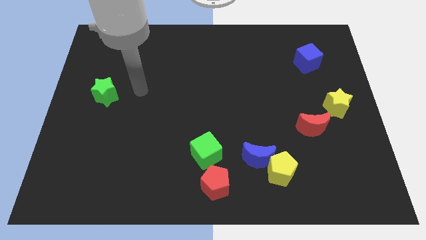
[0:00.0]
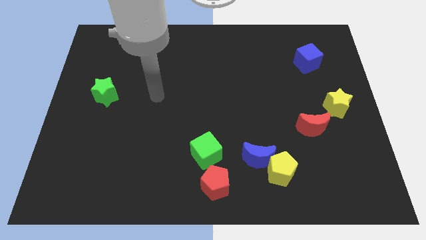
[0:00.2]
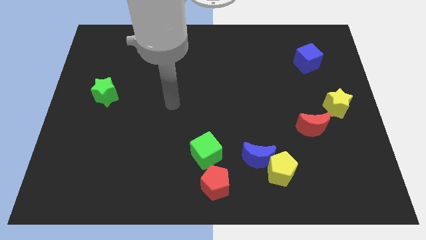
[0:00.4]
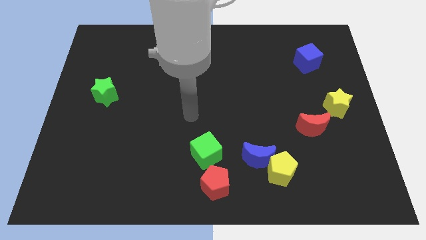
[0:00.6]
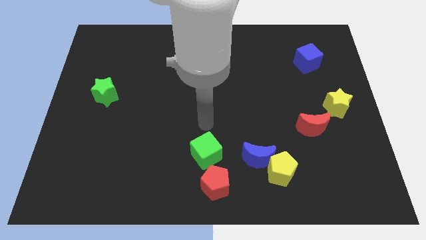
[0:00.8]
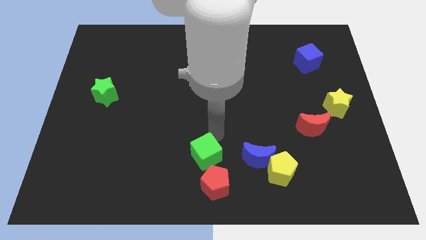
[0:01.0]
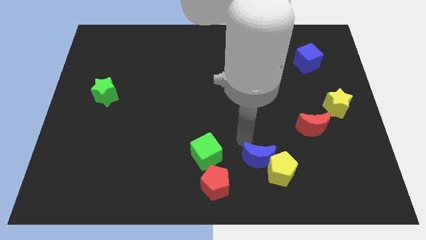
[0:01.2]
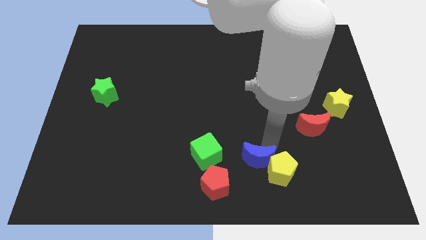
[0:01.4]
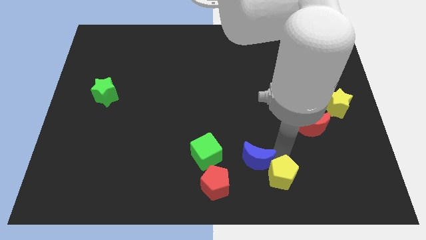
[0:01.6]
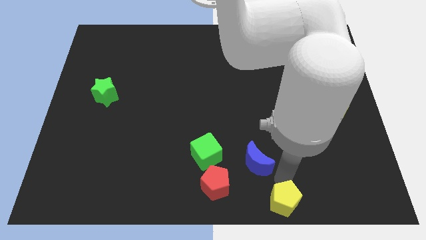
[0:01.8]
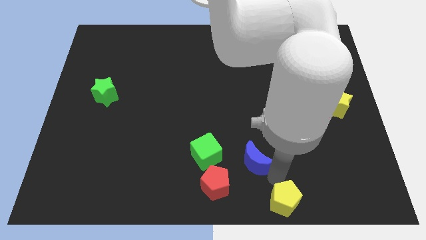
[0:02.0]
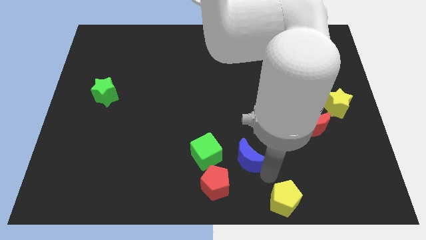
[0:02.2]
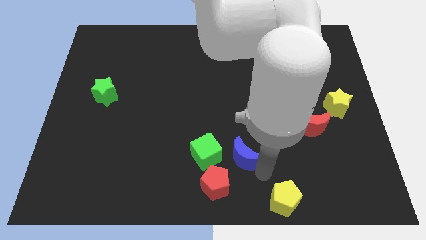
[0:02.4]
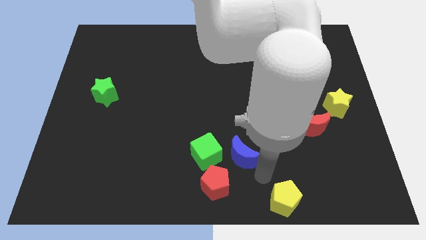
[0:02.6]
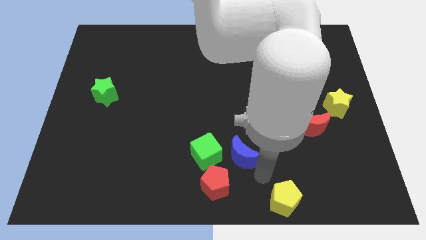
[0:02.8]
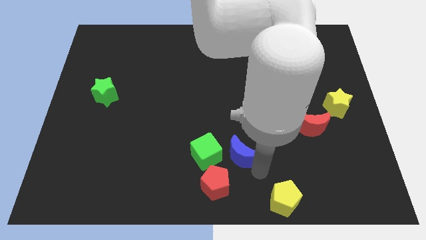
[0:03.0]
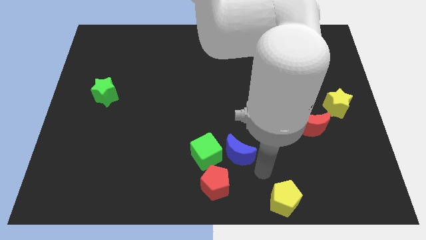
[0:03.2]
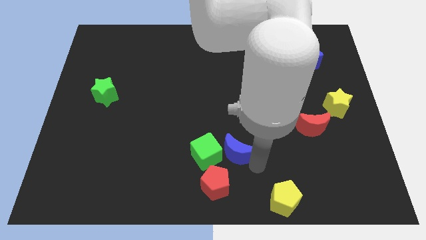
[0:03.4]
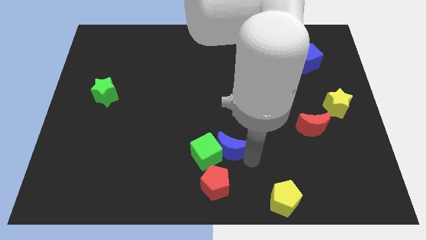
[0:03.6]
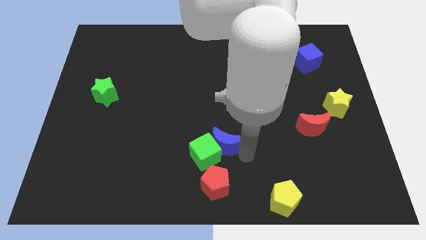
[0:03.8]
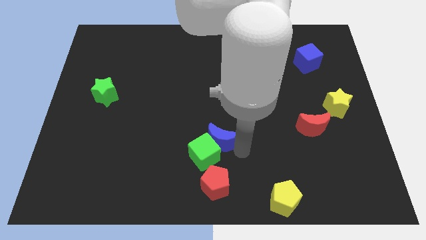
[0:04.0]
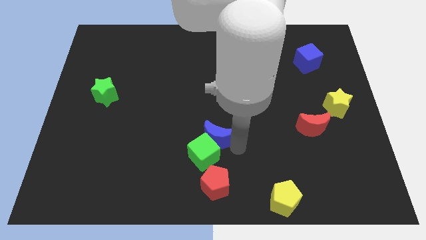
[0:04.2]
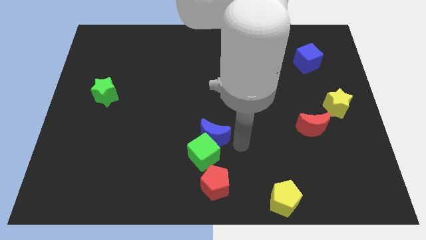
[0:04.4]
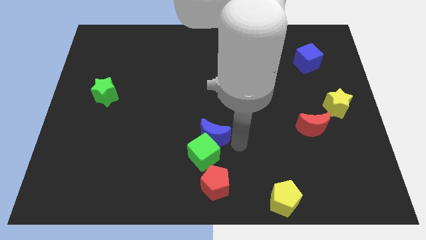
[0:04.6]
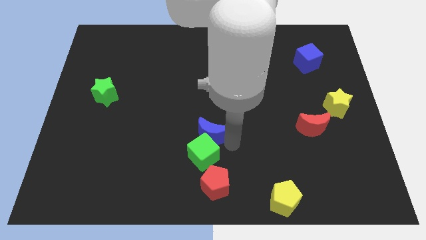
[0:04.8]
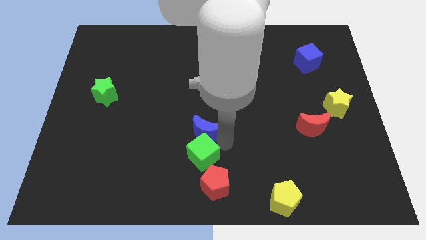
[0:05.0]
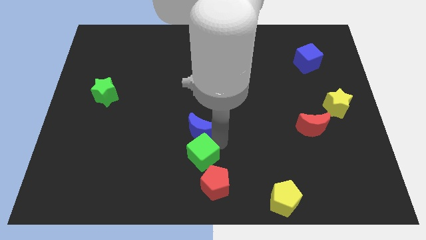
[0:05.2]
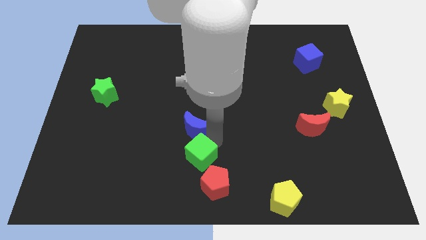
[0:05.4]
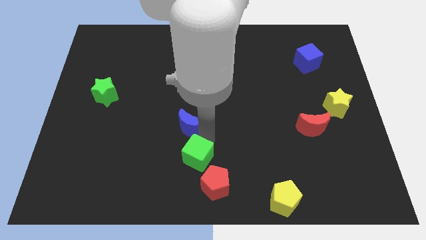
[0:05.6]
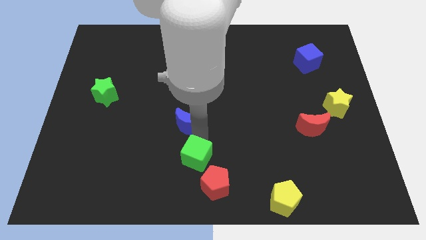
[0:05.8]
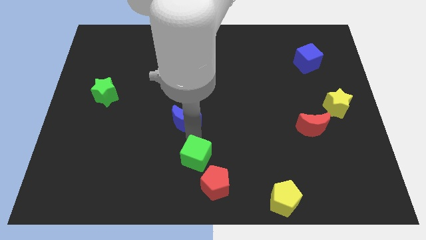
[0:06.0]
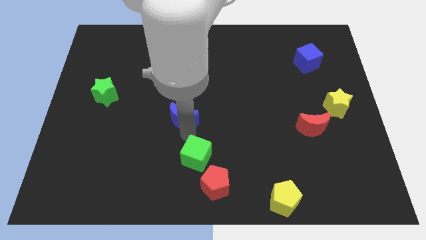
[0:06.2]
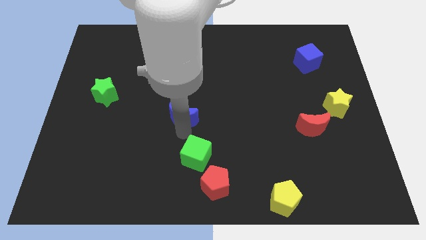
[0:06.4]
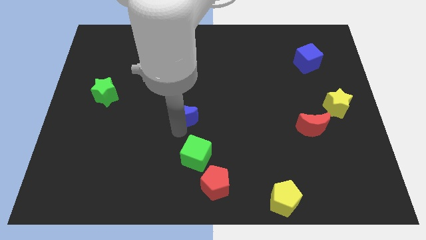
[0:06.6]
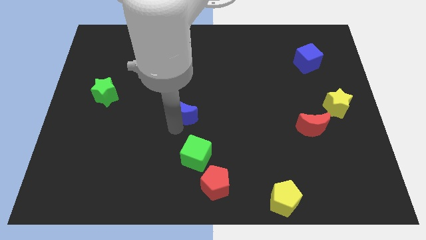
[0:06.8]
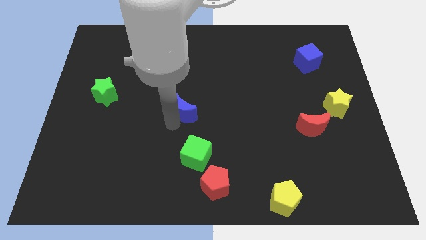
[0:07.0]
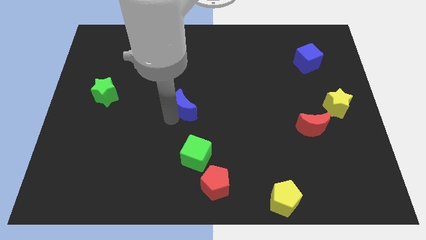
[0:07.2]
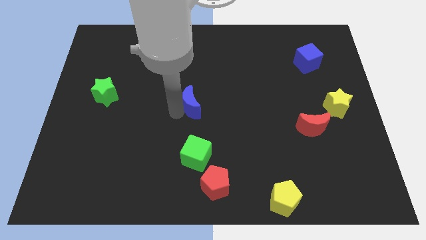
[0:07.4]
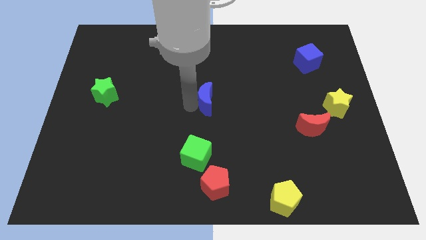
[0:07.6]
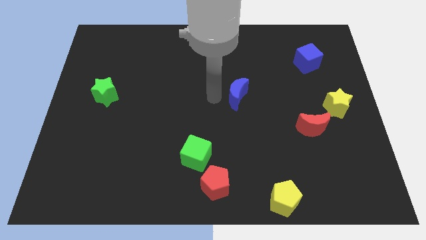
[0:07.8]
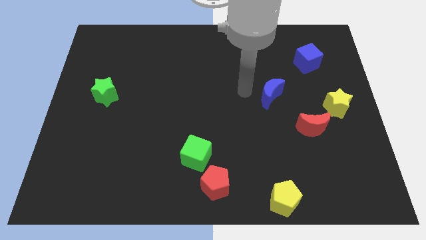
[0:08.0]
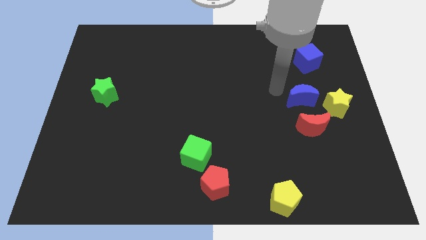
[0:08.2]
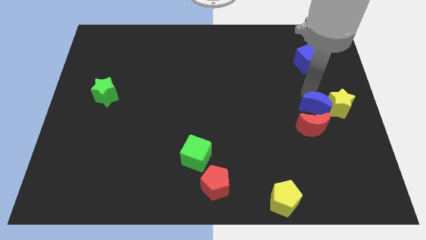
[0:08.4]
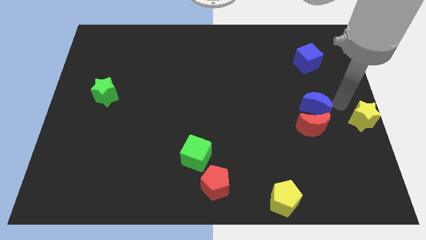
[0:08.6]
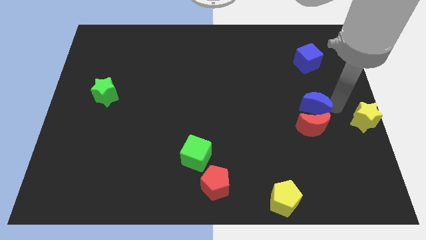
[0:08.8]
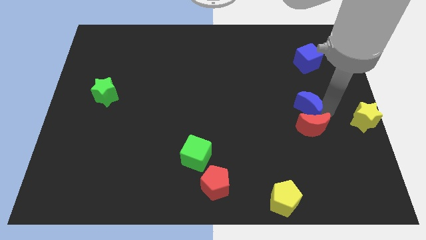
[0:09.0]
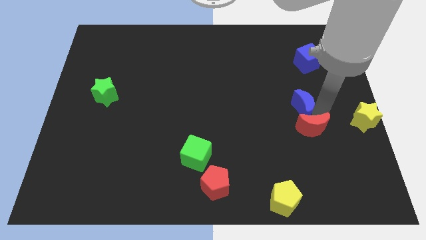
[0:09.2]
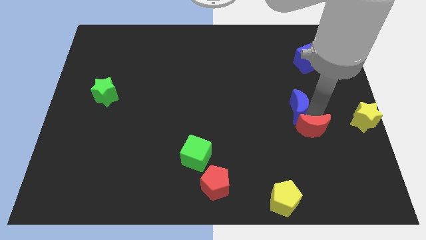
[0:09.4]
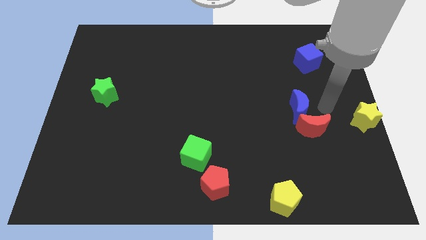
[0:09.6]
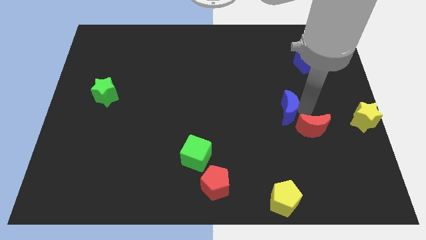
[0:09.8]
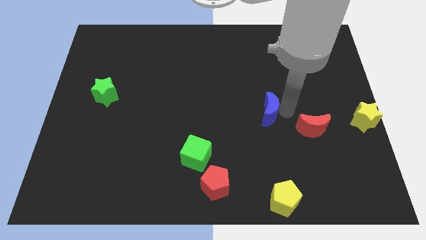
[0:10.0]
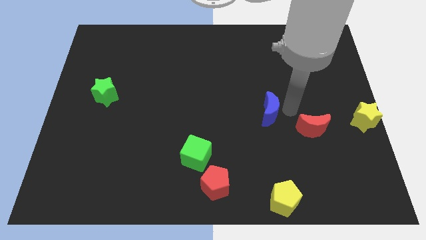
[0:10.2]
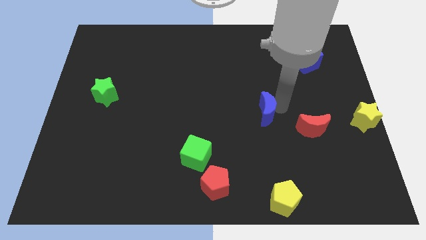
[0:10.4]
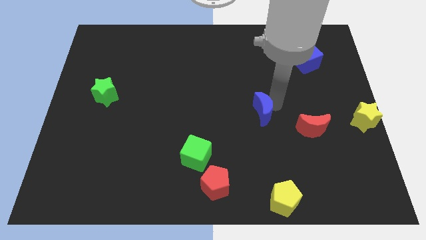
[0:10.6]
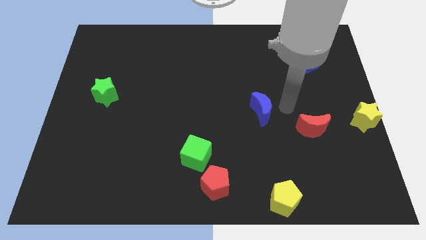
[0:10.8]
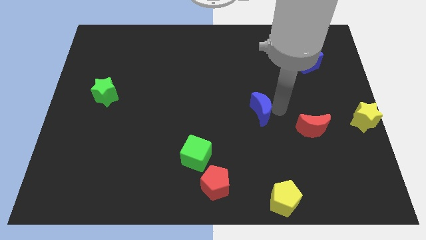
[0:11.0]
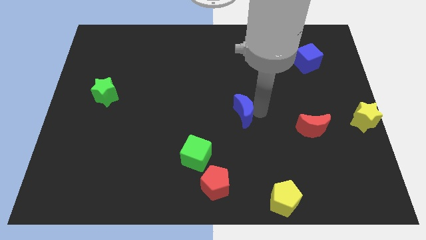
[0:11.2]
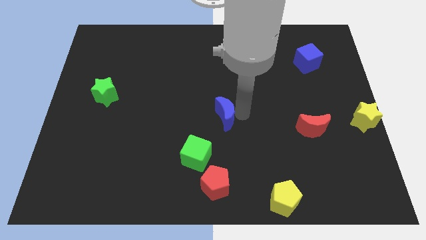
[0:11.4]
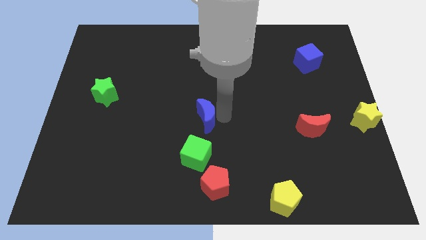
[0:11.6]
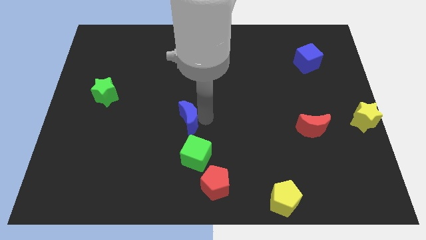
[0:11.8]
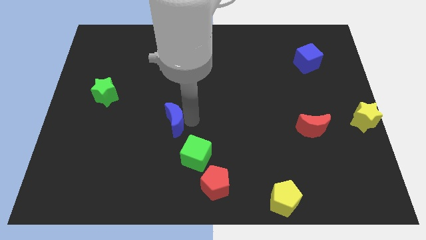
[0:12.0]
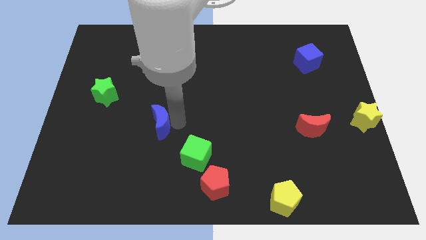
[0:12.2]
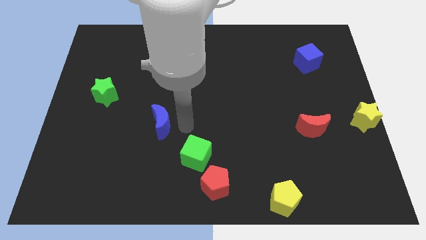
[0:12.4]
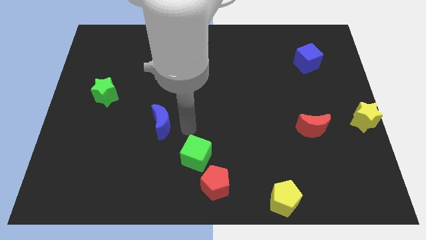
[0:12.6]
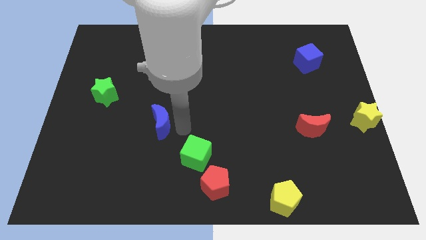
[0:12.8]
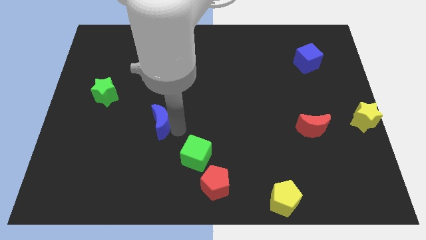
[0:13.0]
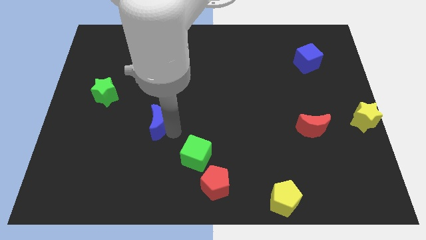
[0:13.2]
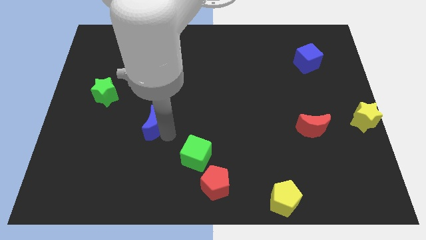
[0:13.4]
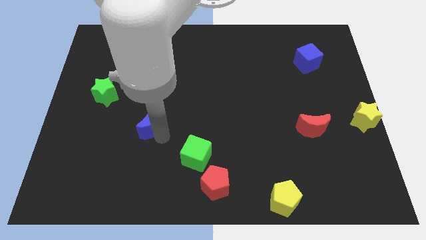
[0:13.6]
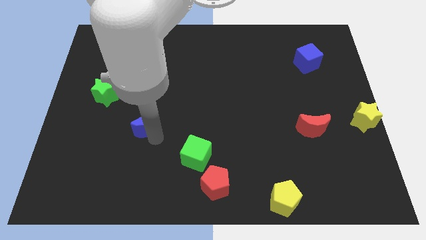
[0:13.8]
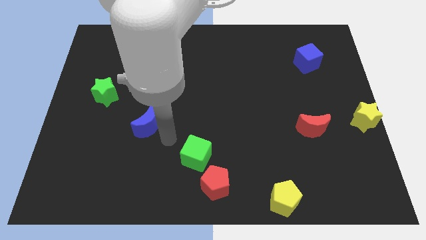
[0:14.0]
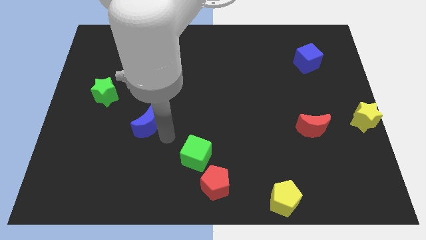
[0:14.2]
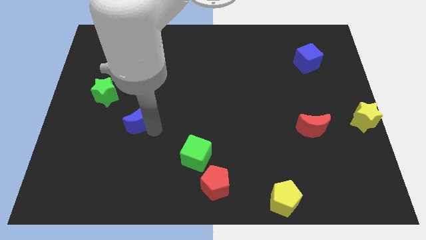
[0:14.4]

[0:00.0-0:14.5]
push the blue moon to the bottom right side of the green star

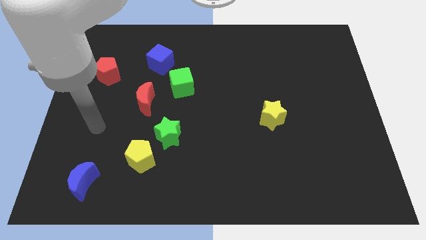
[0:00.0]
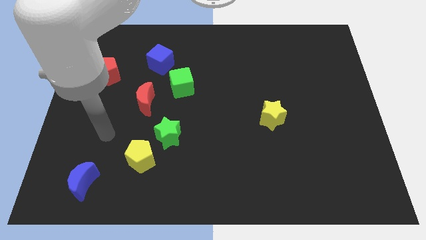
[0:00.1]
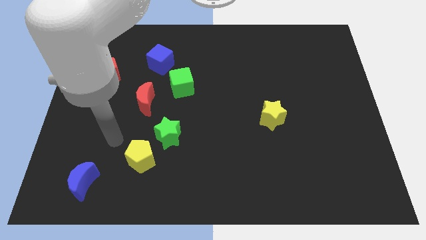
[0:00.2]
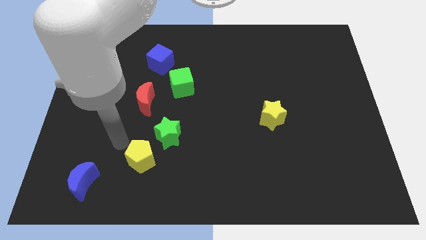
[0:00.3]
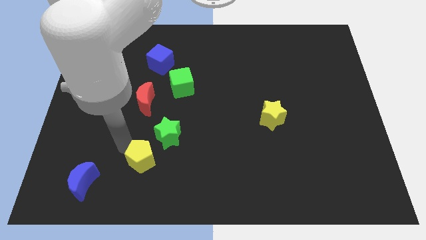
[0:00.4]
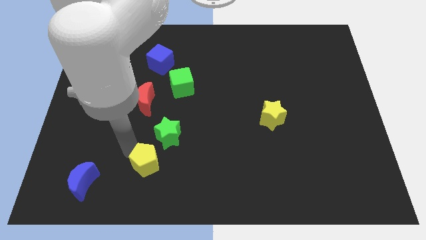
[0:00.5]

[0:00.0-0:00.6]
move the yellow pentagon below the green star
